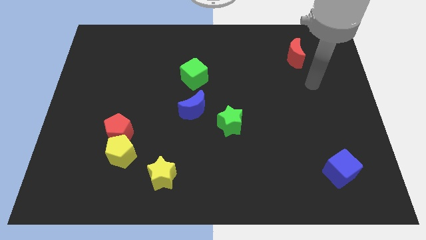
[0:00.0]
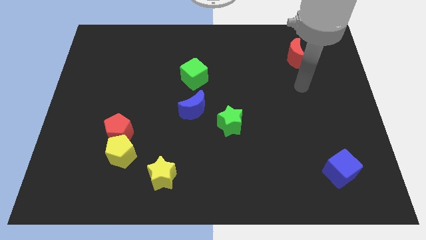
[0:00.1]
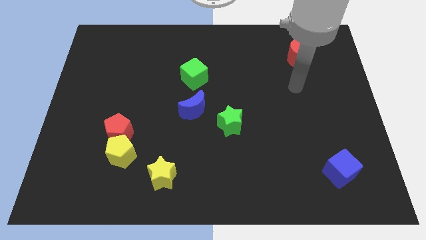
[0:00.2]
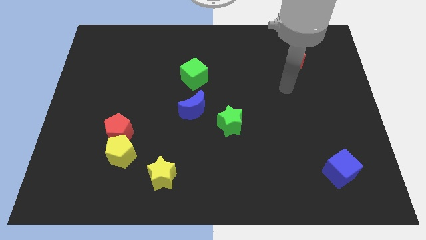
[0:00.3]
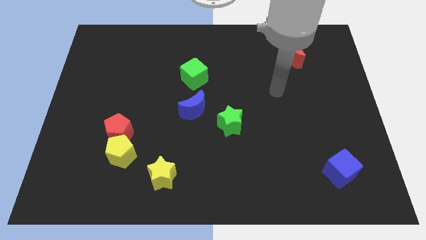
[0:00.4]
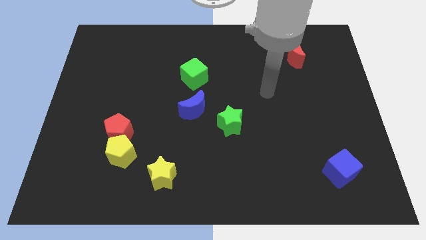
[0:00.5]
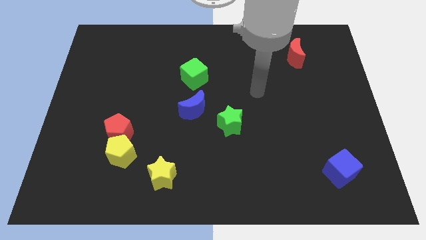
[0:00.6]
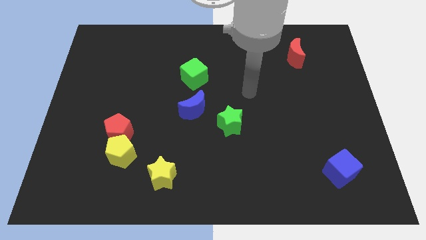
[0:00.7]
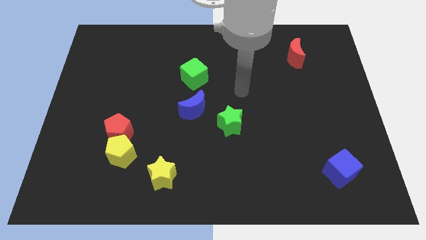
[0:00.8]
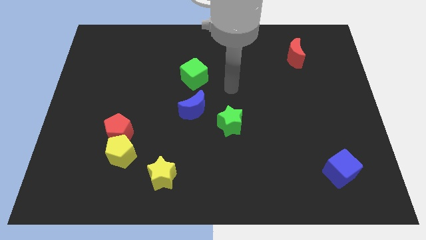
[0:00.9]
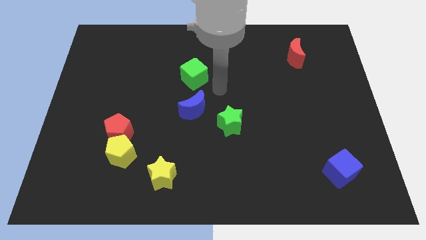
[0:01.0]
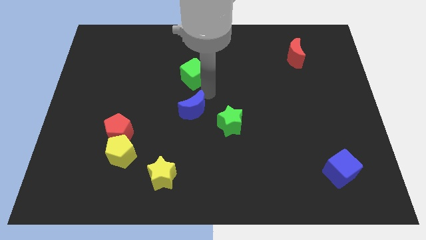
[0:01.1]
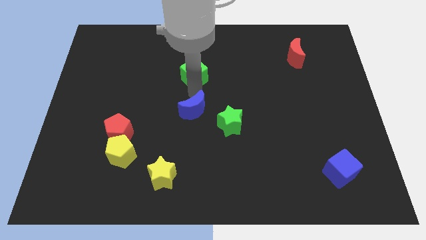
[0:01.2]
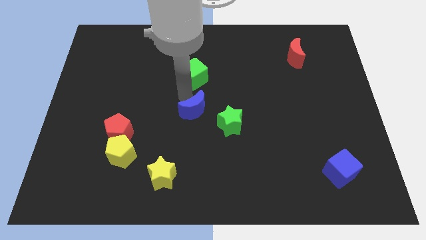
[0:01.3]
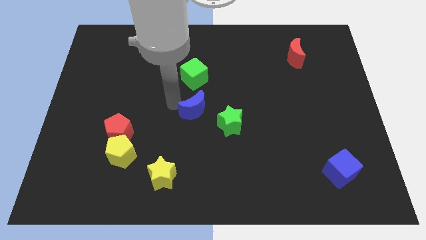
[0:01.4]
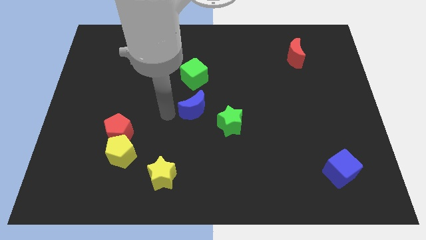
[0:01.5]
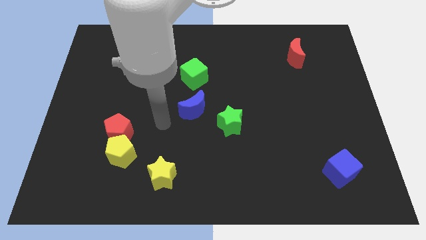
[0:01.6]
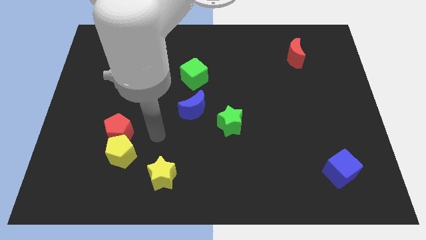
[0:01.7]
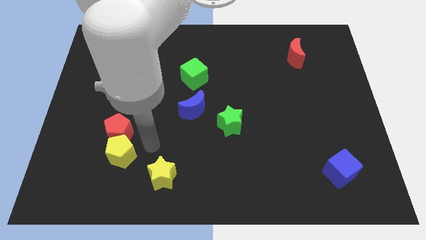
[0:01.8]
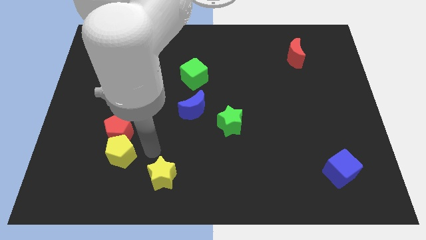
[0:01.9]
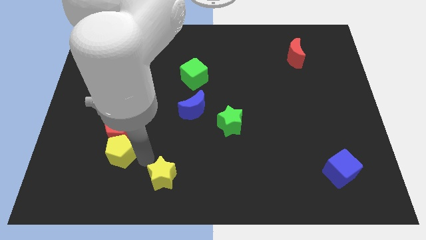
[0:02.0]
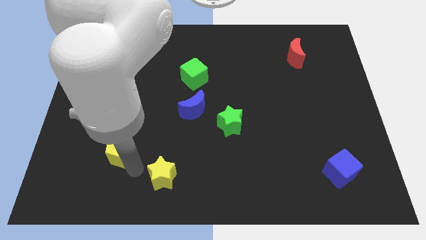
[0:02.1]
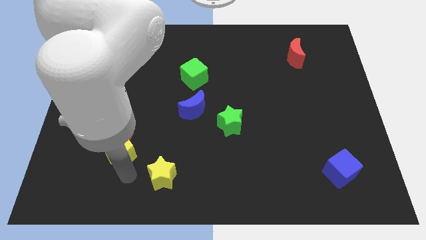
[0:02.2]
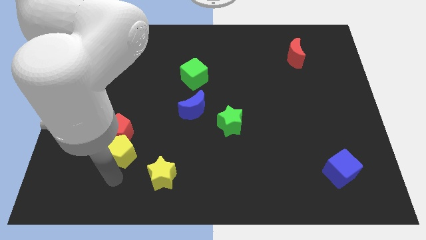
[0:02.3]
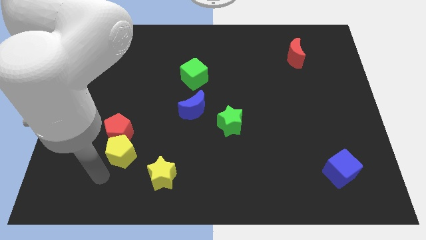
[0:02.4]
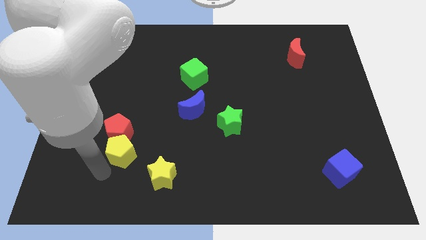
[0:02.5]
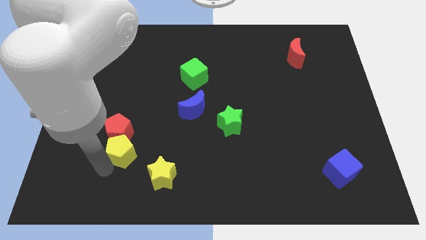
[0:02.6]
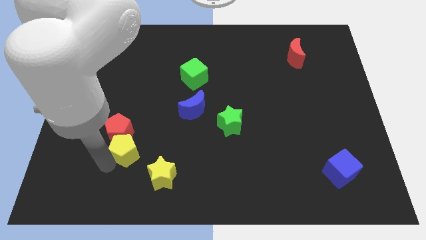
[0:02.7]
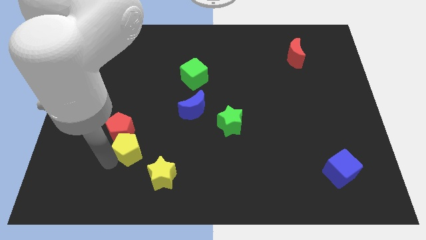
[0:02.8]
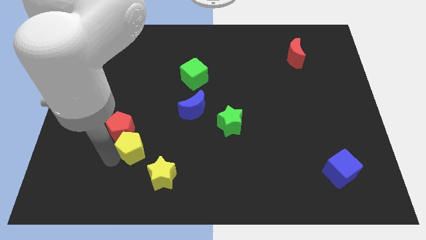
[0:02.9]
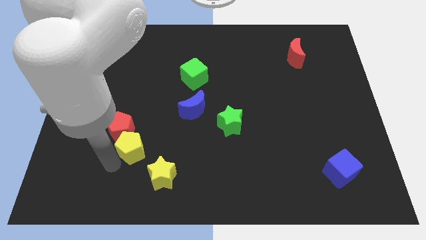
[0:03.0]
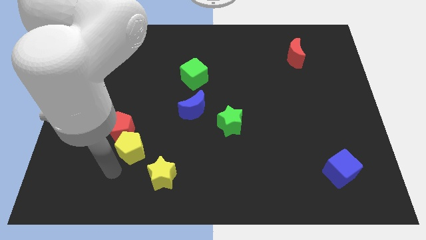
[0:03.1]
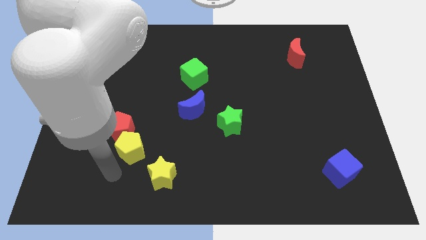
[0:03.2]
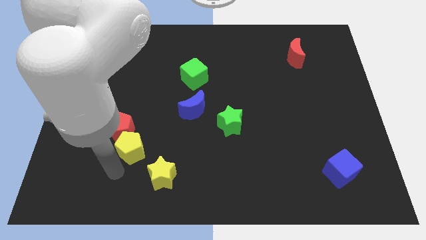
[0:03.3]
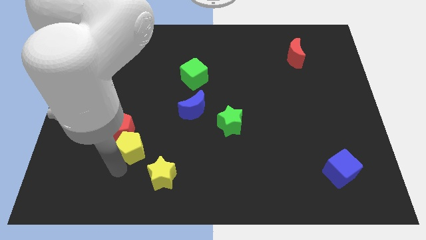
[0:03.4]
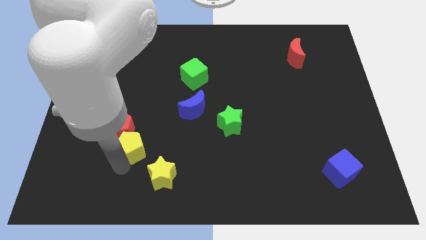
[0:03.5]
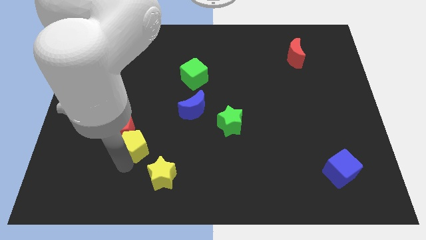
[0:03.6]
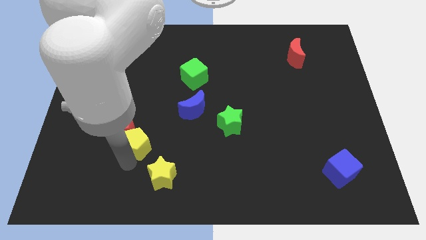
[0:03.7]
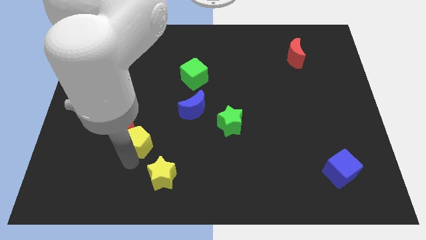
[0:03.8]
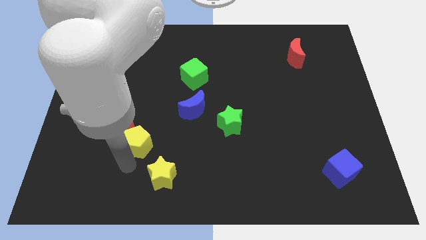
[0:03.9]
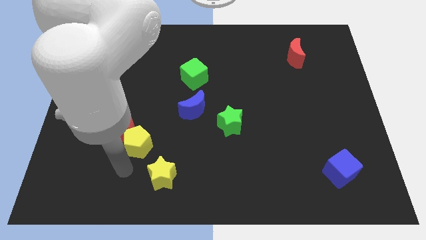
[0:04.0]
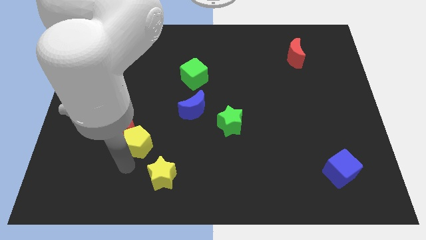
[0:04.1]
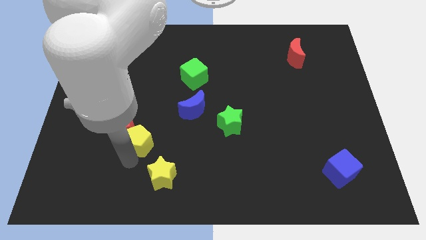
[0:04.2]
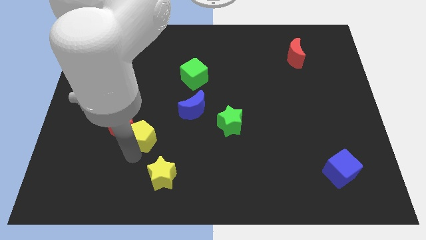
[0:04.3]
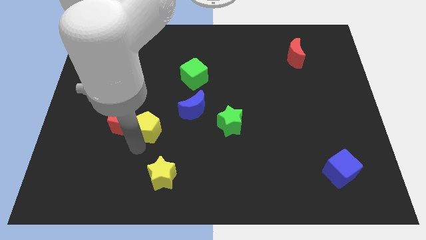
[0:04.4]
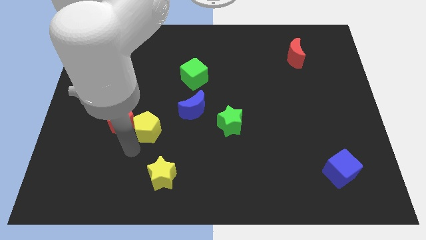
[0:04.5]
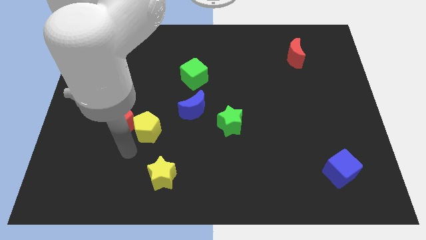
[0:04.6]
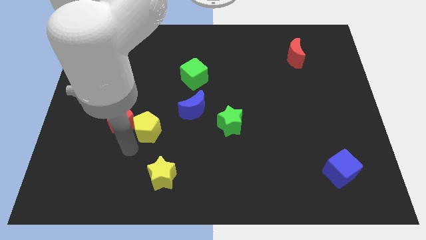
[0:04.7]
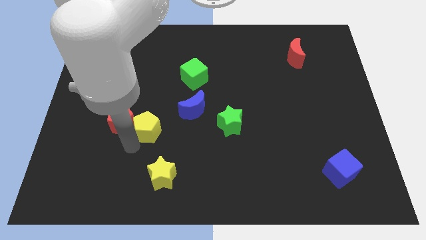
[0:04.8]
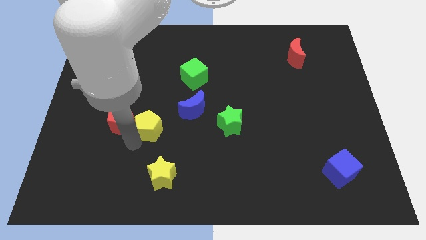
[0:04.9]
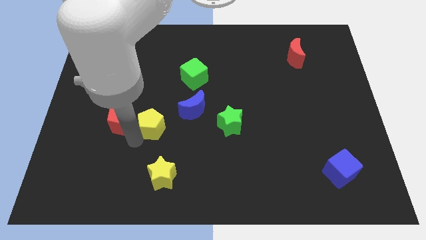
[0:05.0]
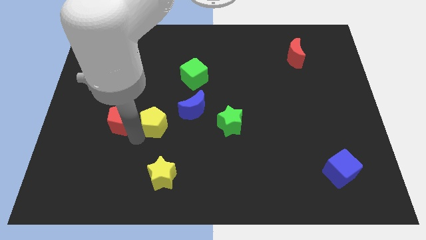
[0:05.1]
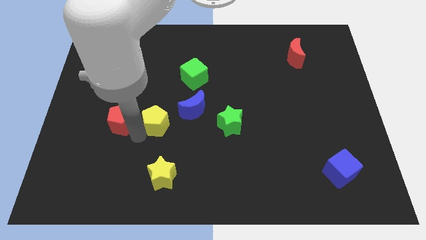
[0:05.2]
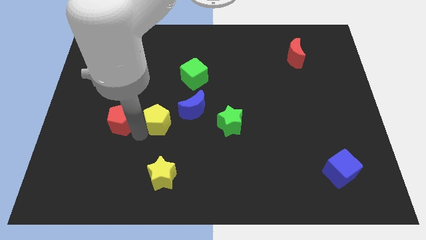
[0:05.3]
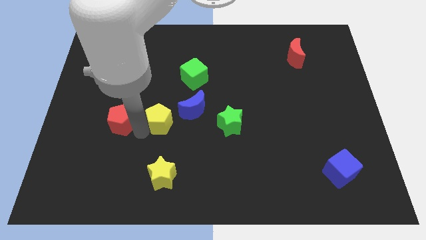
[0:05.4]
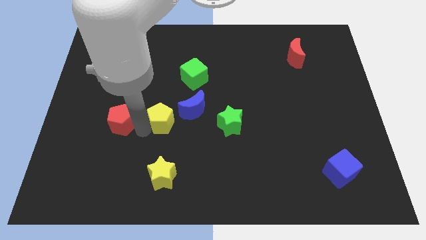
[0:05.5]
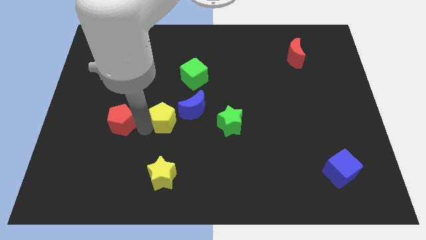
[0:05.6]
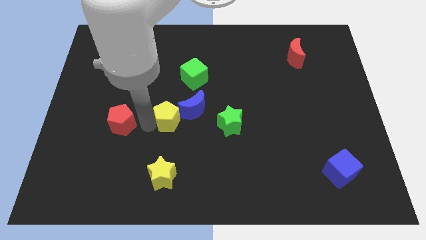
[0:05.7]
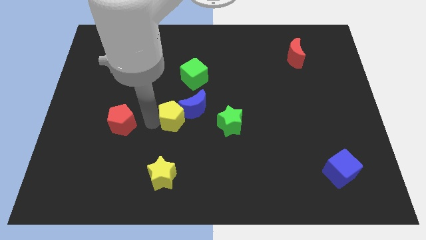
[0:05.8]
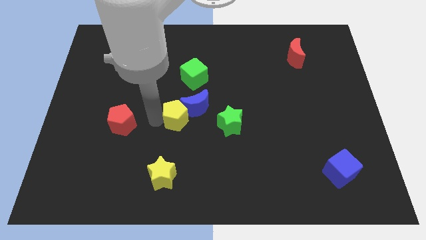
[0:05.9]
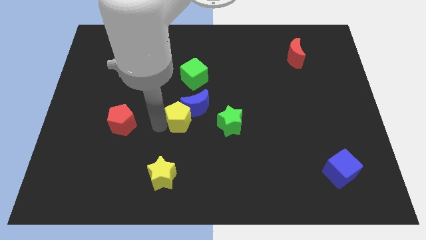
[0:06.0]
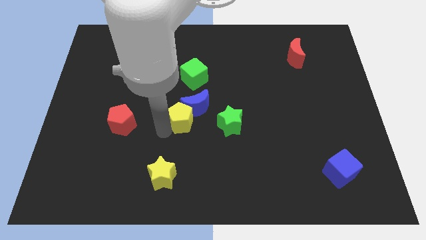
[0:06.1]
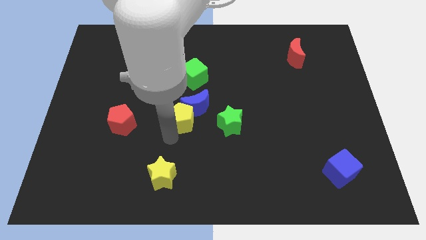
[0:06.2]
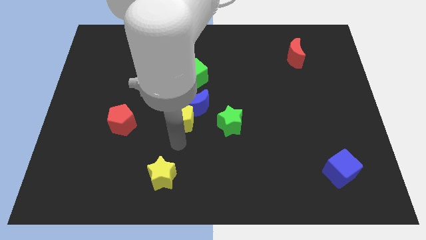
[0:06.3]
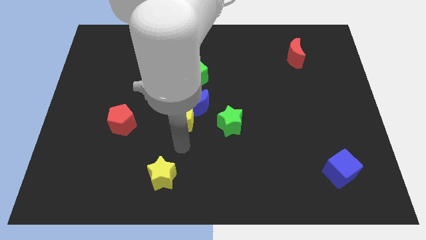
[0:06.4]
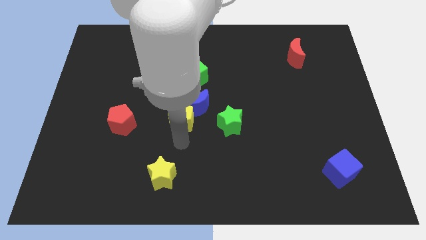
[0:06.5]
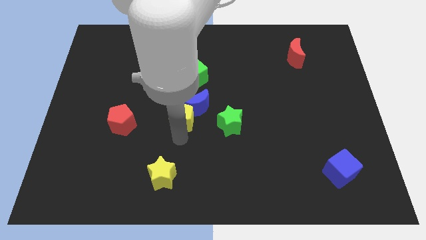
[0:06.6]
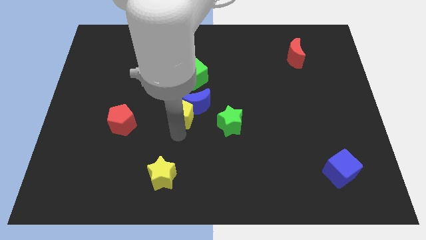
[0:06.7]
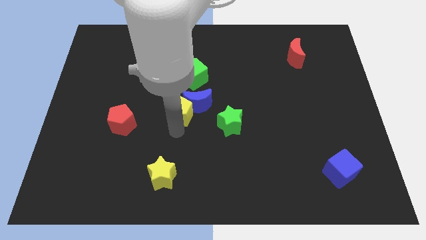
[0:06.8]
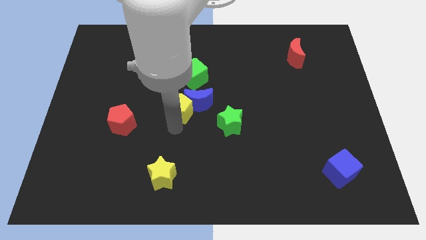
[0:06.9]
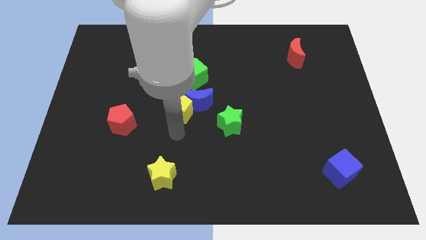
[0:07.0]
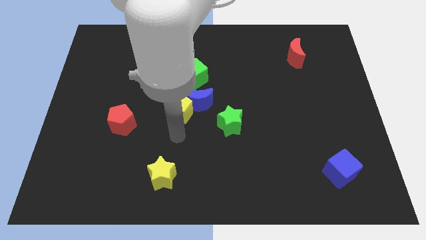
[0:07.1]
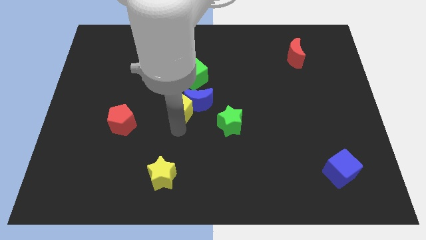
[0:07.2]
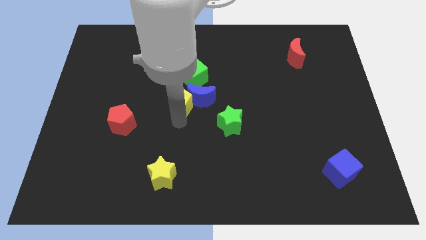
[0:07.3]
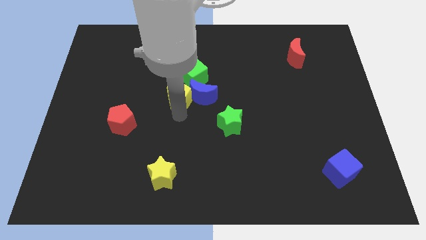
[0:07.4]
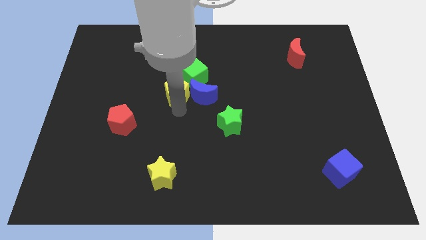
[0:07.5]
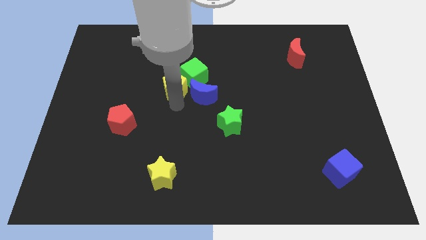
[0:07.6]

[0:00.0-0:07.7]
slide the yellow pentagon next to the green cube
